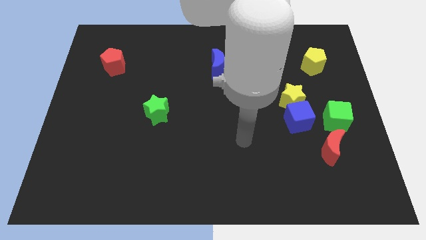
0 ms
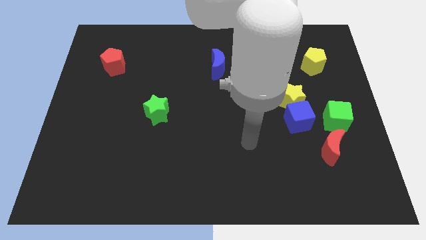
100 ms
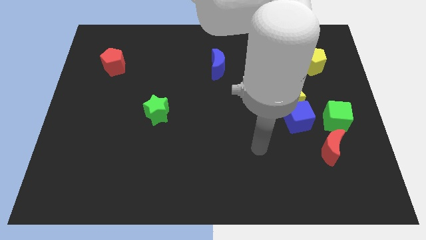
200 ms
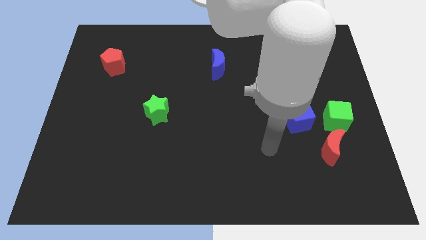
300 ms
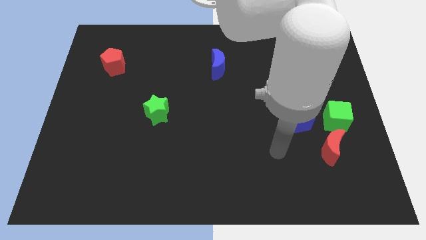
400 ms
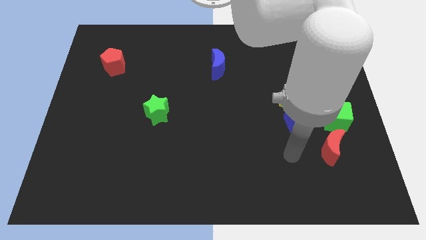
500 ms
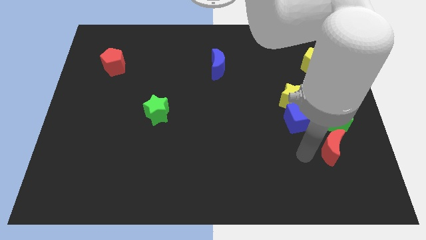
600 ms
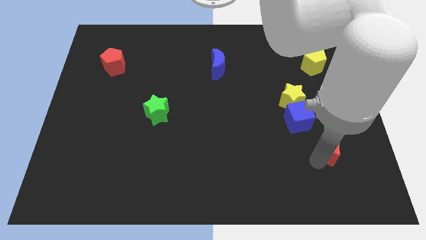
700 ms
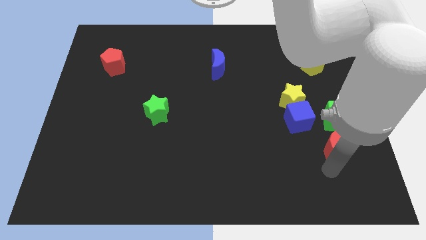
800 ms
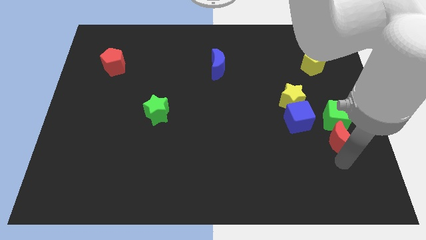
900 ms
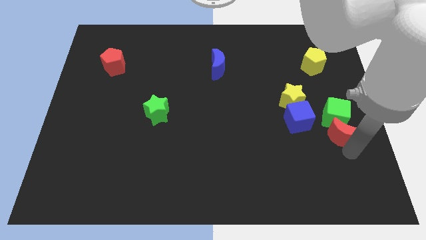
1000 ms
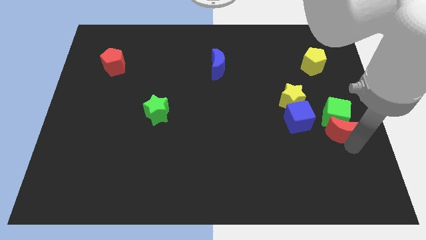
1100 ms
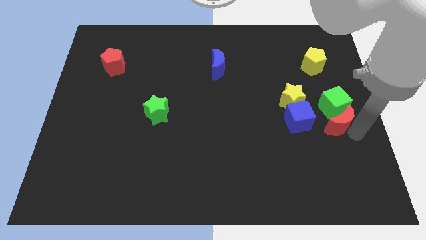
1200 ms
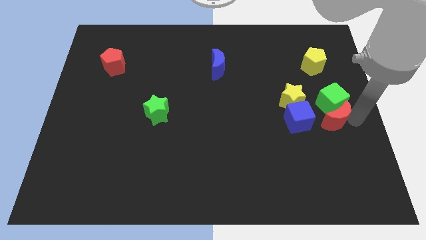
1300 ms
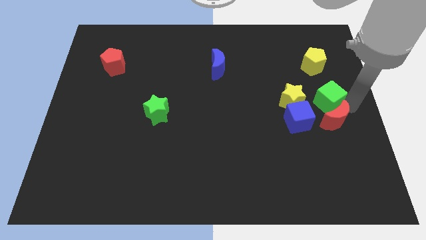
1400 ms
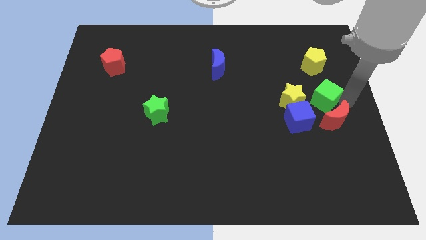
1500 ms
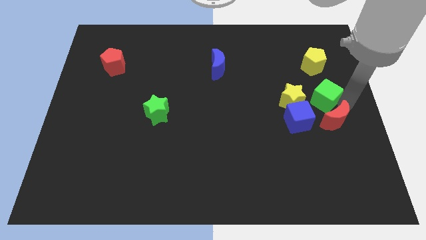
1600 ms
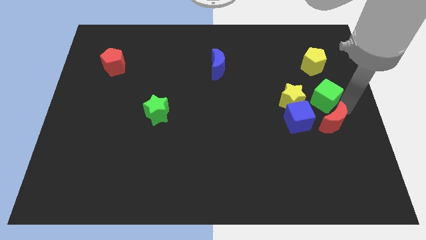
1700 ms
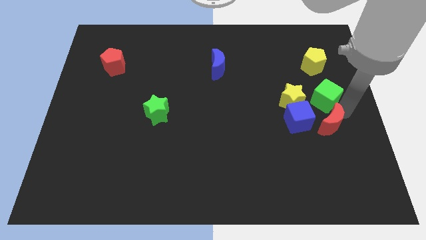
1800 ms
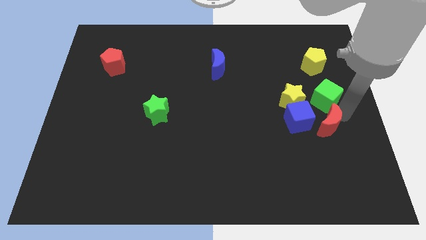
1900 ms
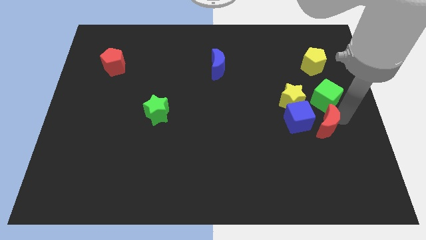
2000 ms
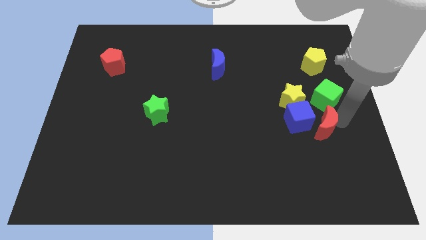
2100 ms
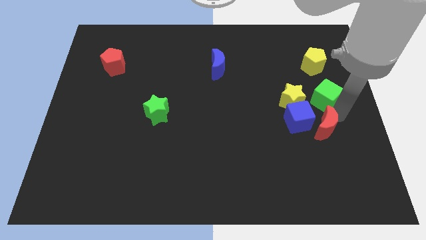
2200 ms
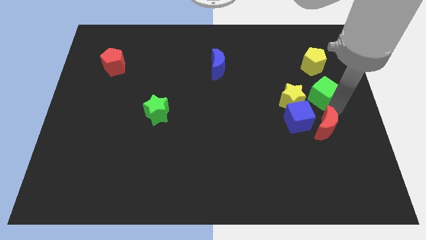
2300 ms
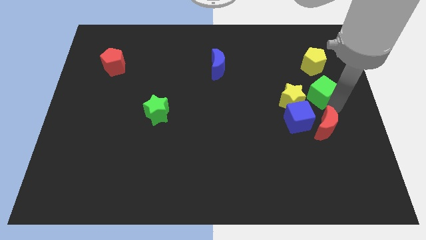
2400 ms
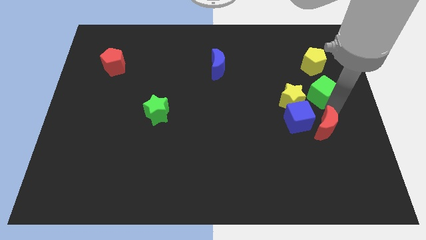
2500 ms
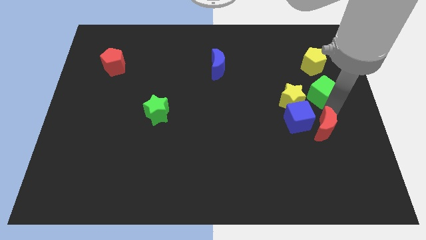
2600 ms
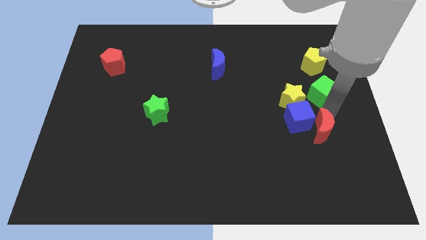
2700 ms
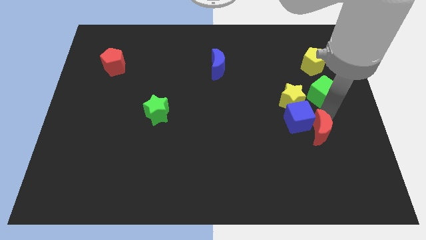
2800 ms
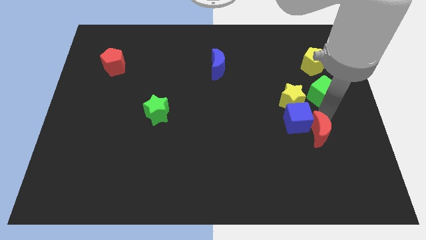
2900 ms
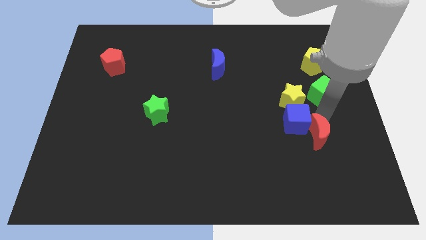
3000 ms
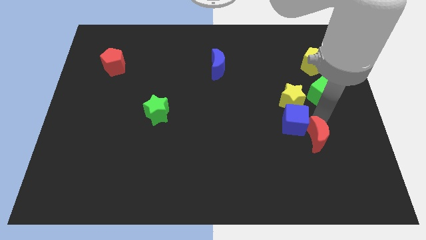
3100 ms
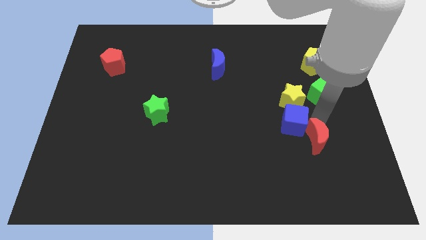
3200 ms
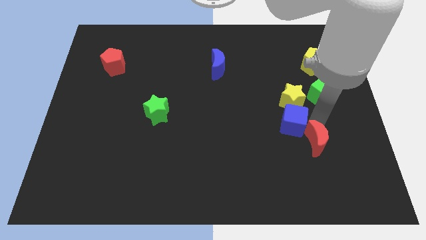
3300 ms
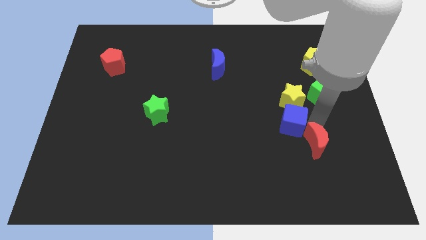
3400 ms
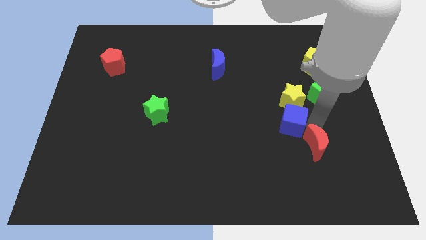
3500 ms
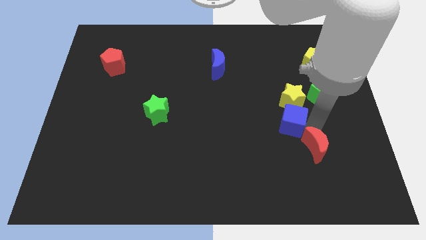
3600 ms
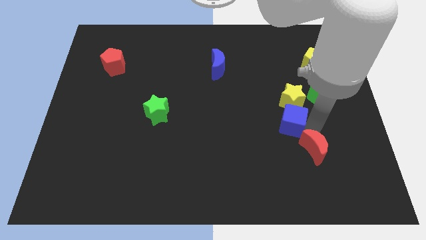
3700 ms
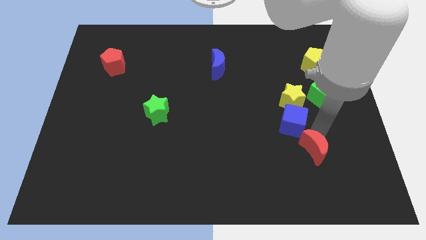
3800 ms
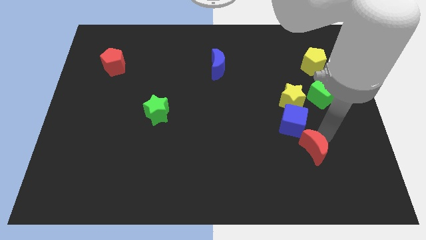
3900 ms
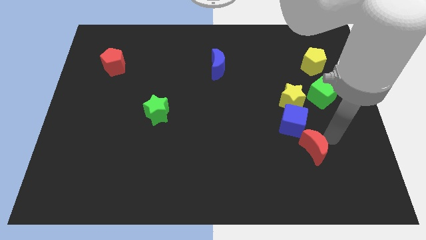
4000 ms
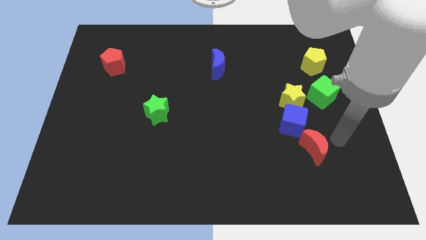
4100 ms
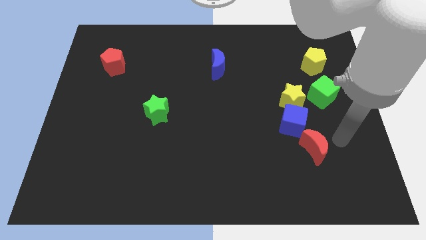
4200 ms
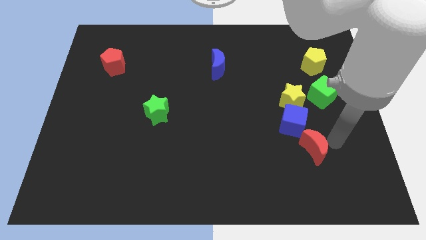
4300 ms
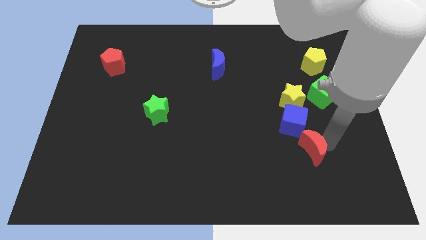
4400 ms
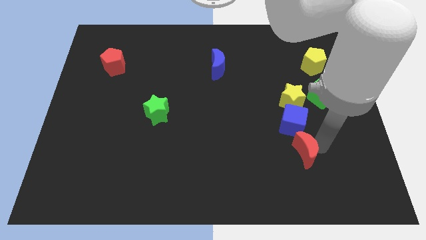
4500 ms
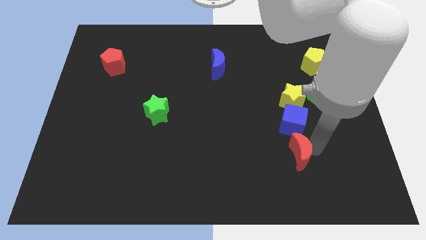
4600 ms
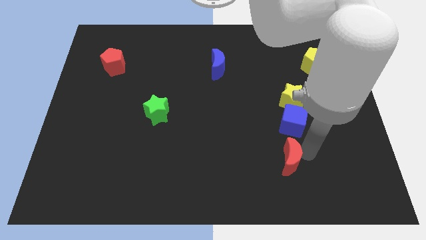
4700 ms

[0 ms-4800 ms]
slightly move the red moon left

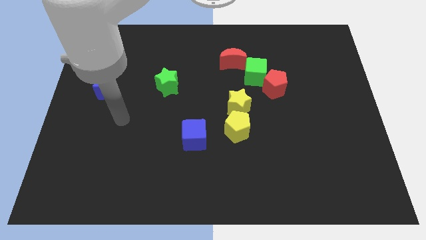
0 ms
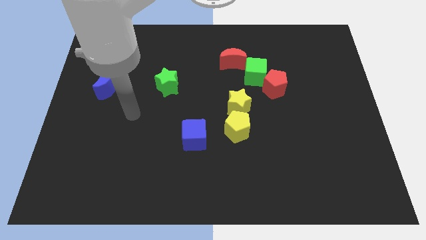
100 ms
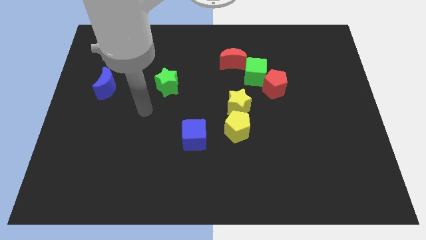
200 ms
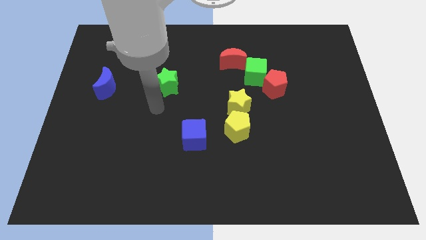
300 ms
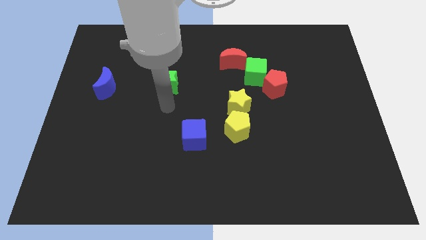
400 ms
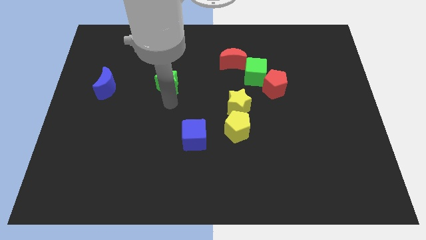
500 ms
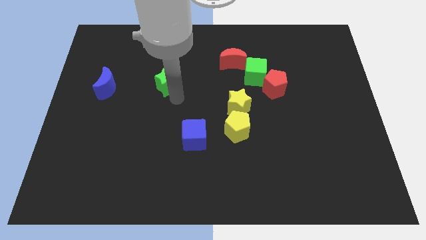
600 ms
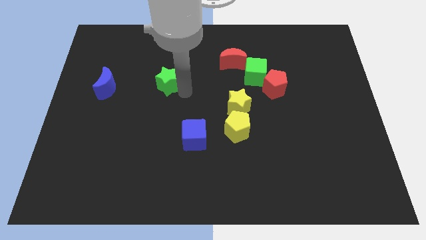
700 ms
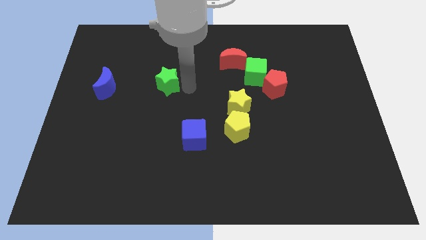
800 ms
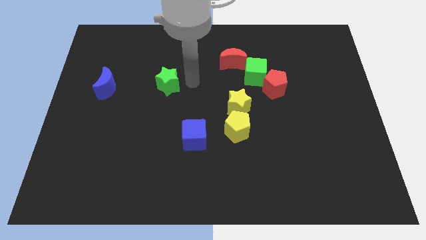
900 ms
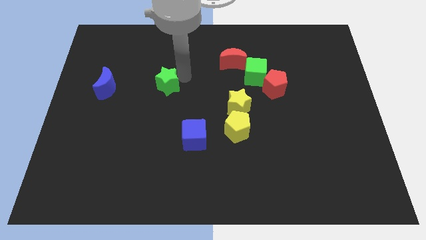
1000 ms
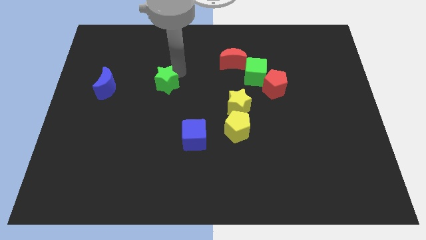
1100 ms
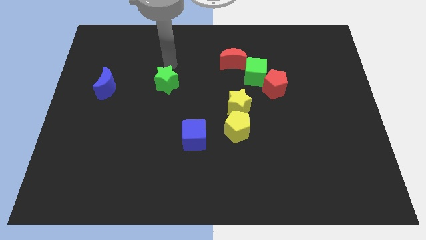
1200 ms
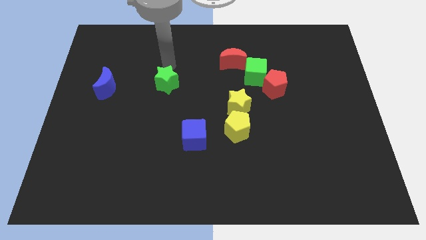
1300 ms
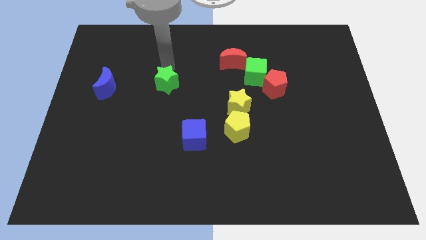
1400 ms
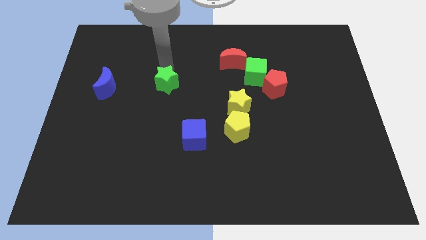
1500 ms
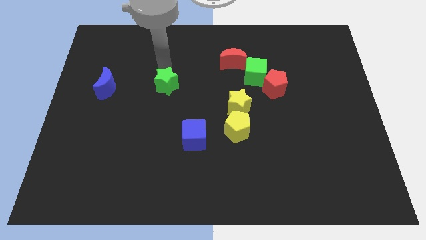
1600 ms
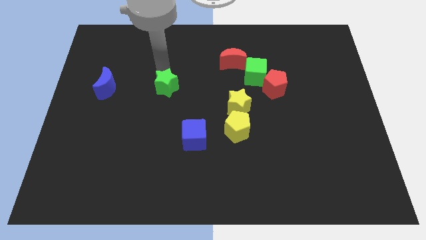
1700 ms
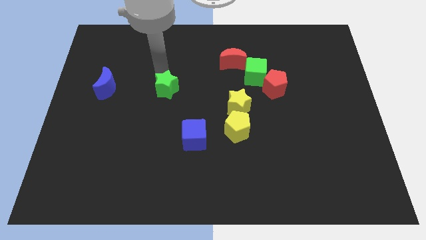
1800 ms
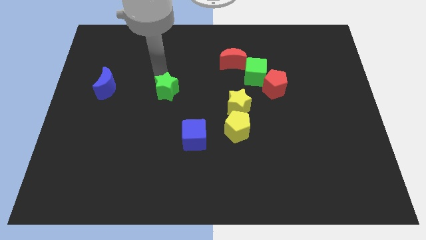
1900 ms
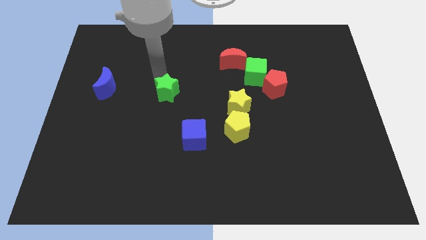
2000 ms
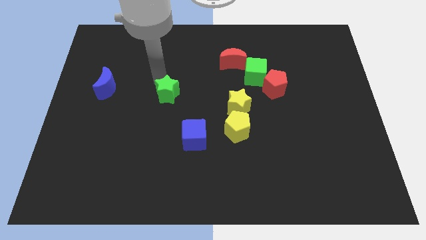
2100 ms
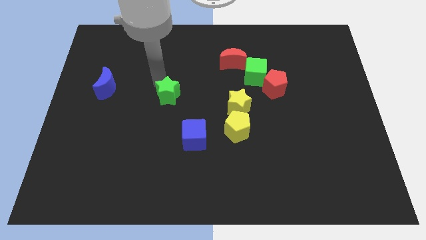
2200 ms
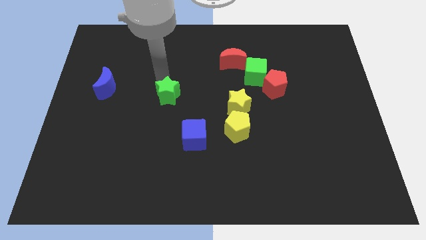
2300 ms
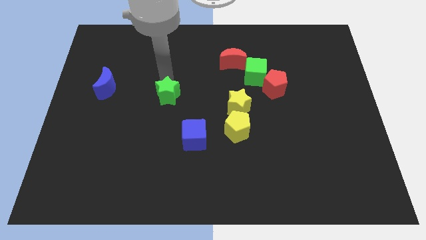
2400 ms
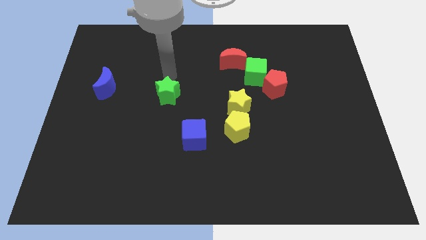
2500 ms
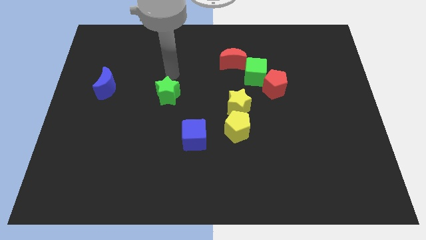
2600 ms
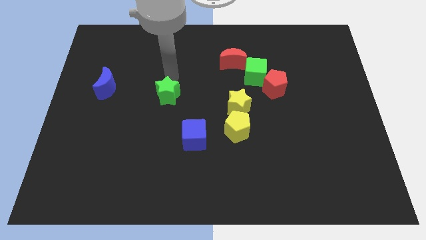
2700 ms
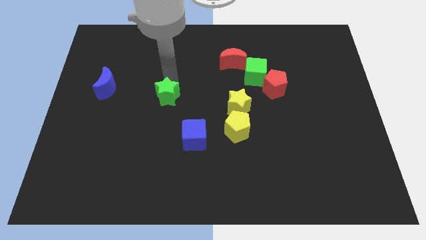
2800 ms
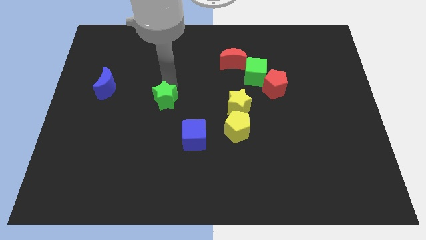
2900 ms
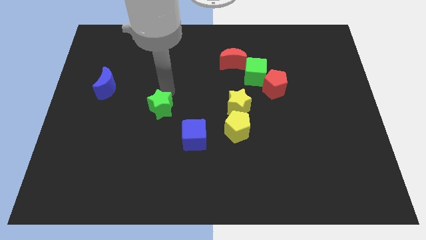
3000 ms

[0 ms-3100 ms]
slide the green star a bit down
